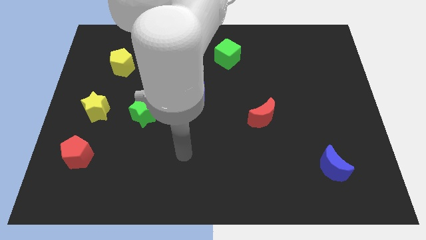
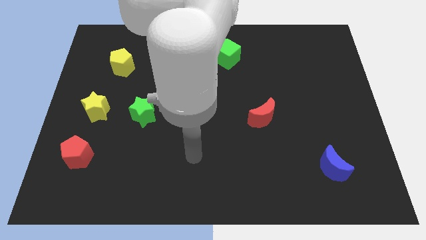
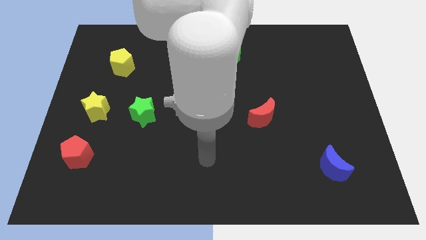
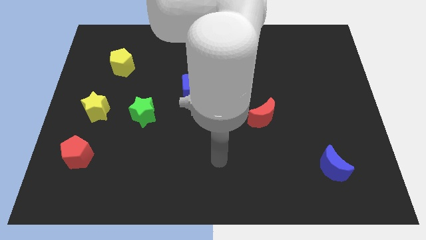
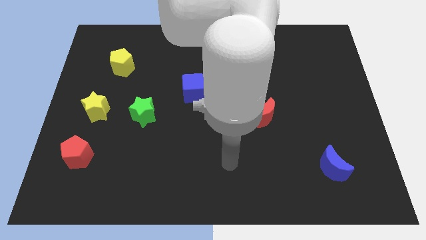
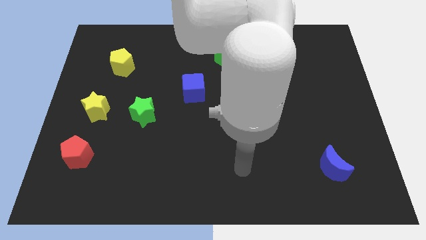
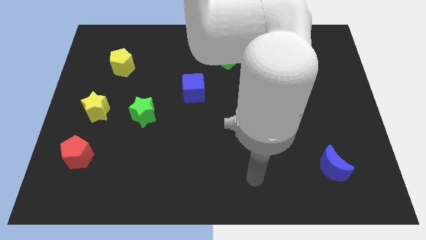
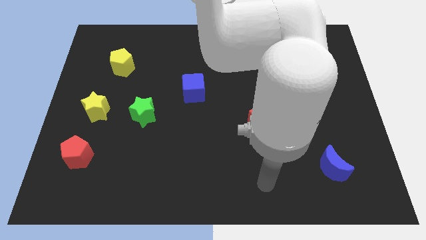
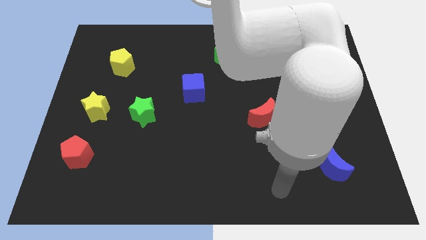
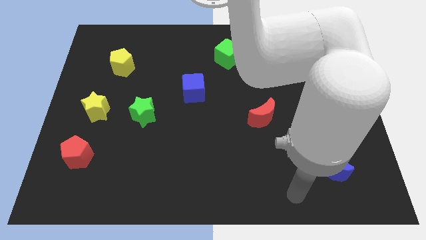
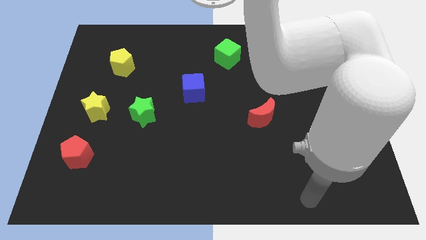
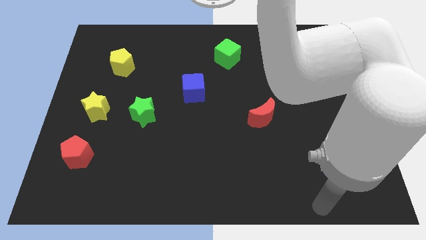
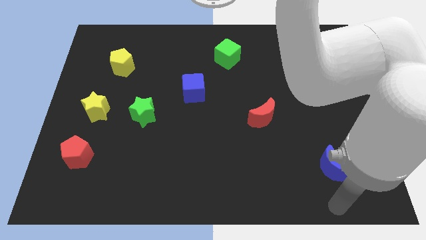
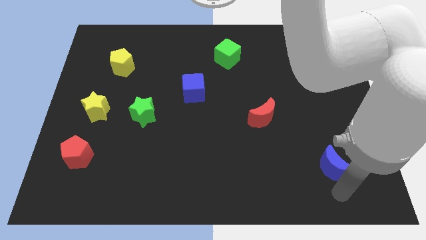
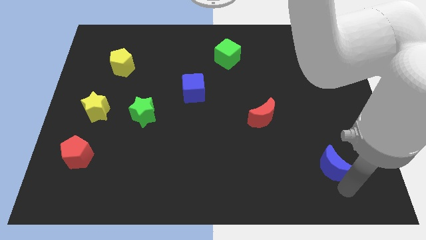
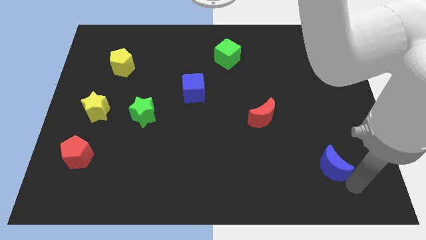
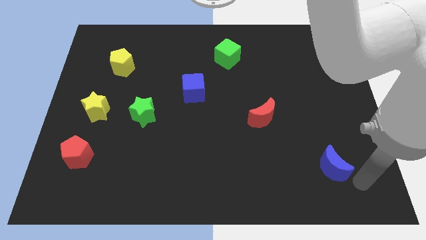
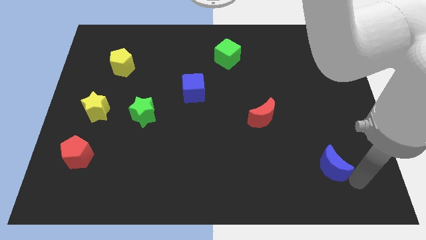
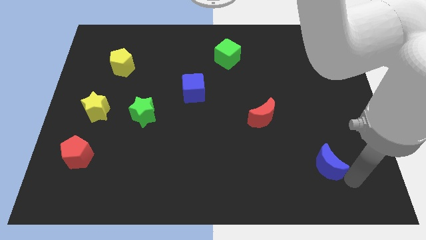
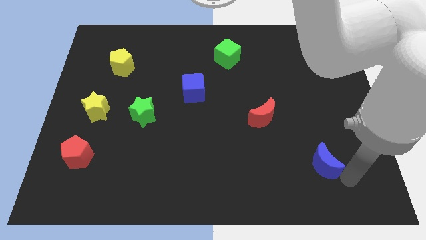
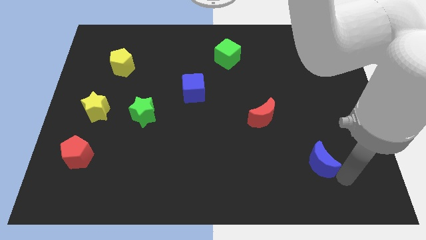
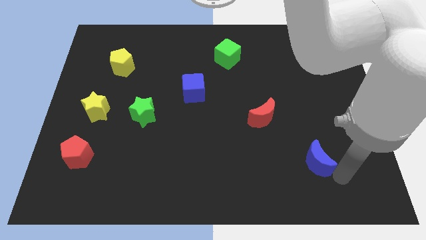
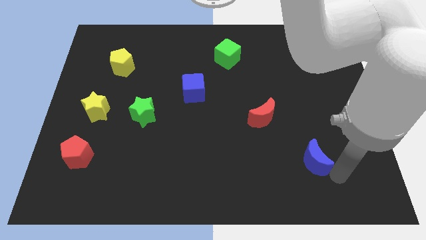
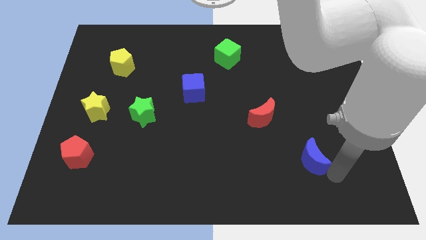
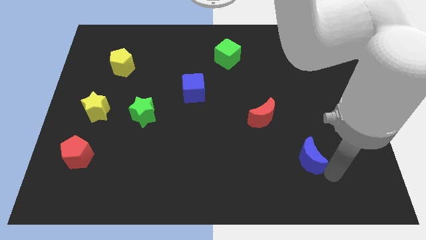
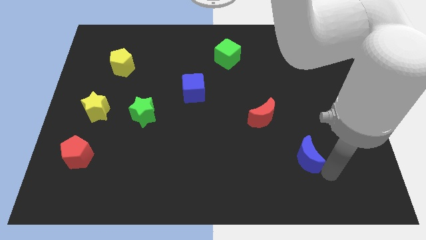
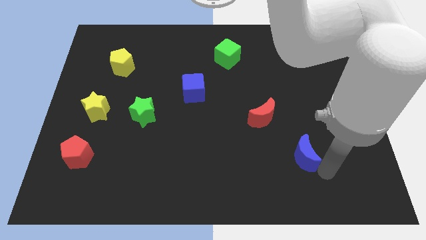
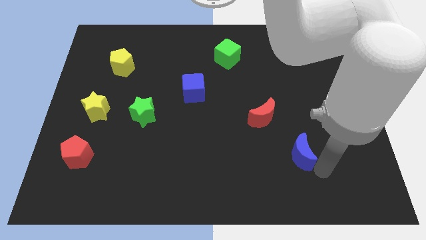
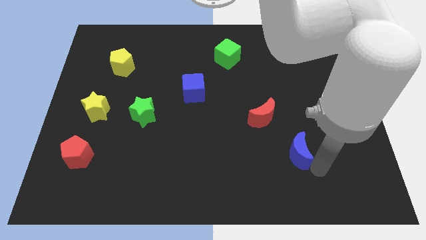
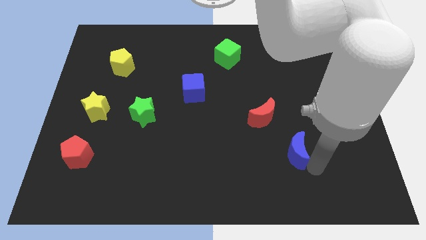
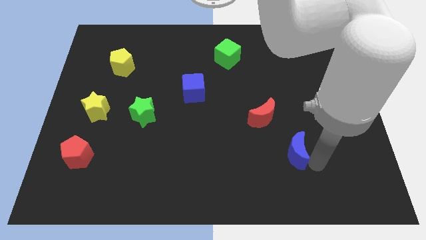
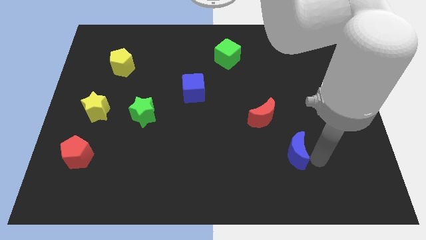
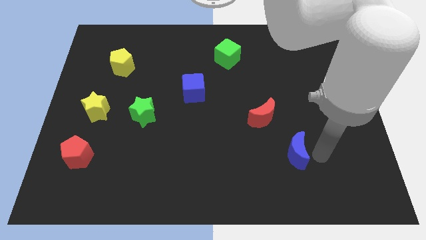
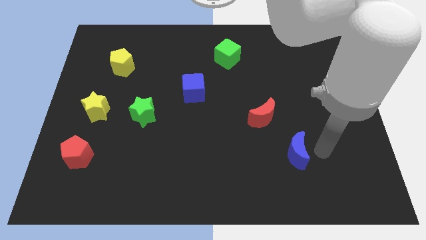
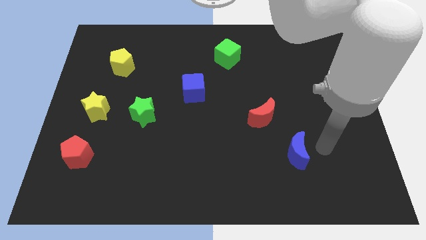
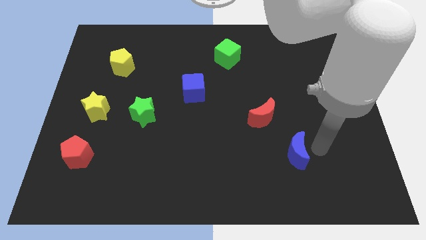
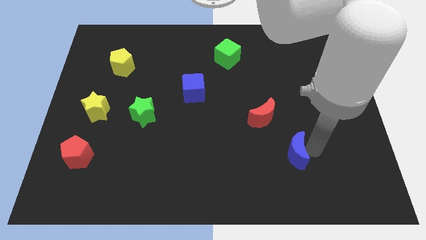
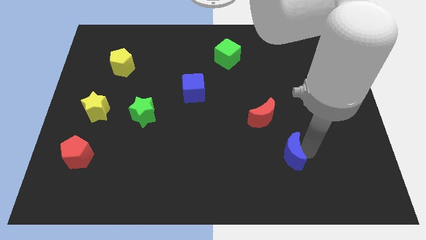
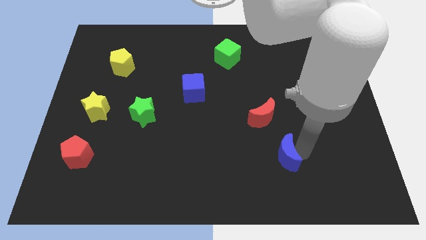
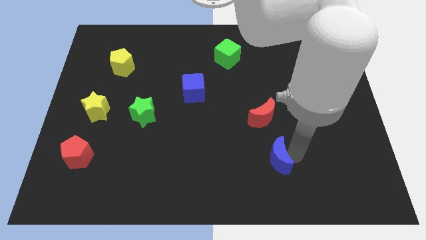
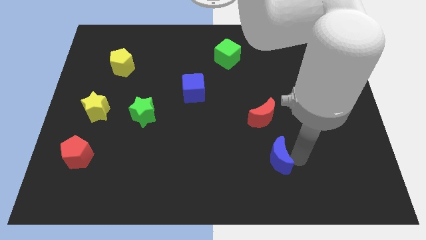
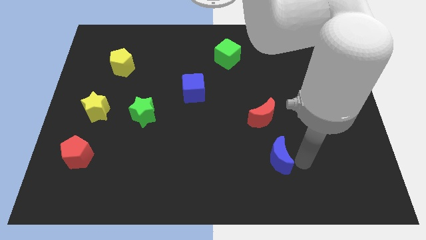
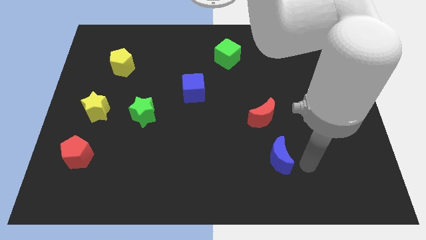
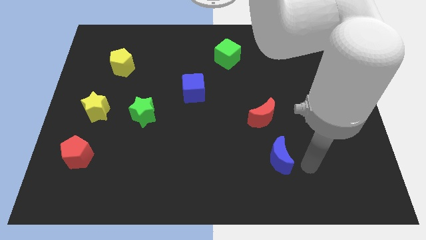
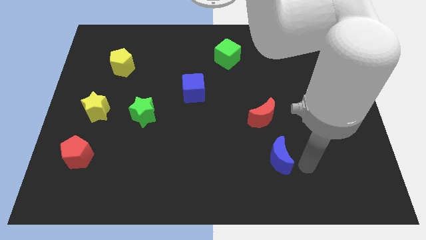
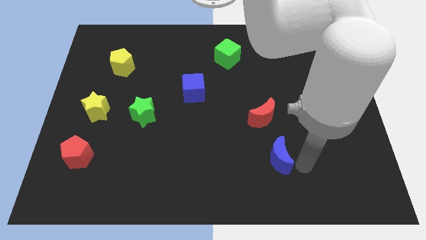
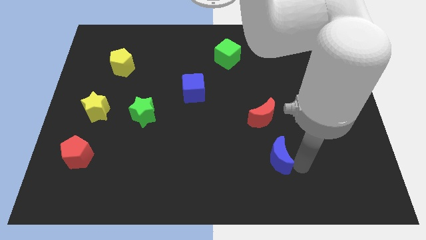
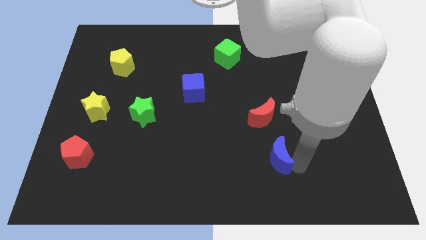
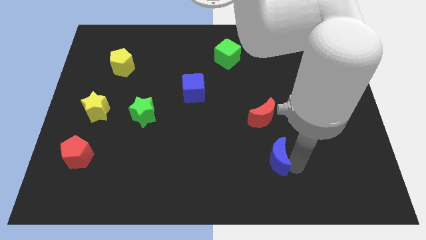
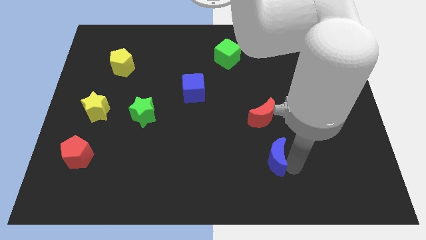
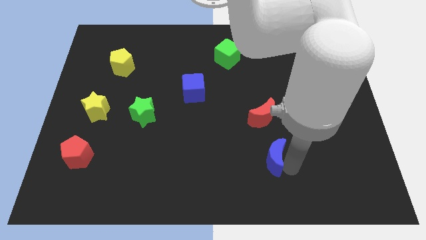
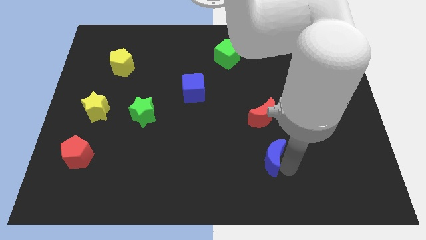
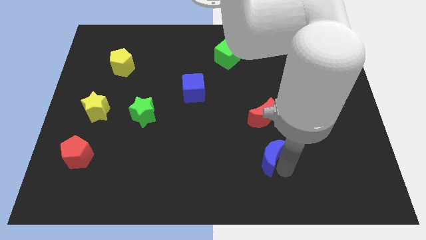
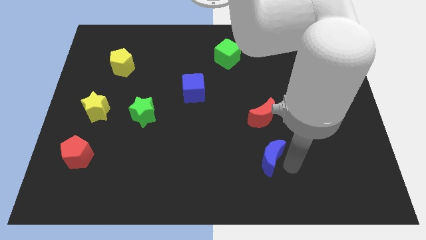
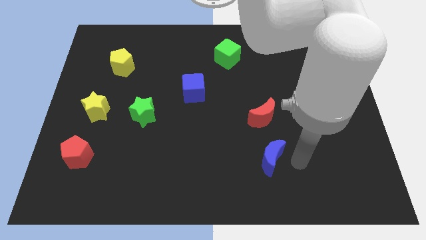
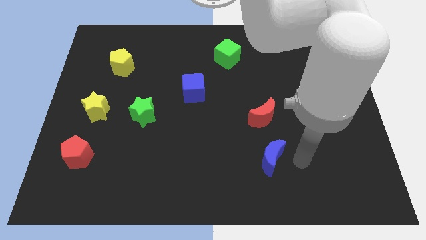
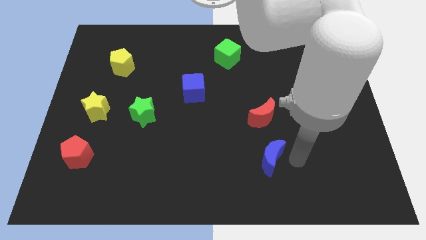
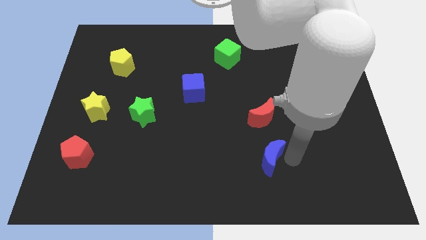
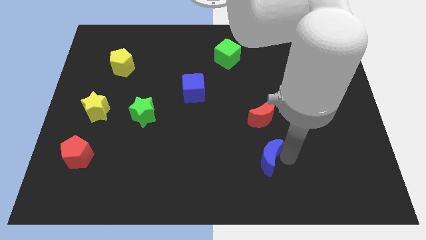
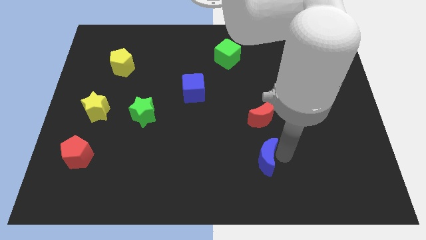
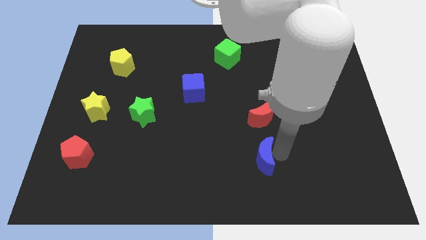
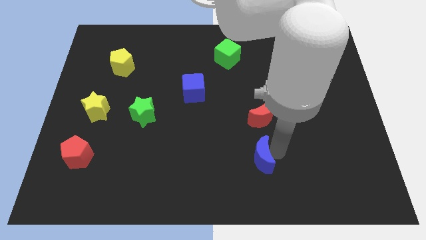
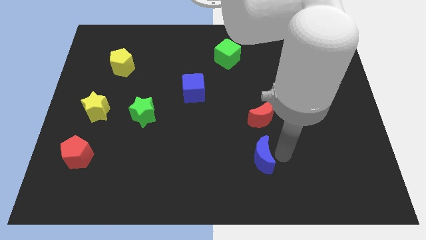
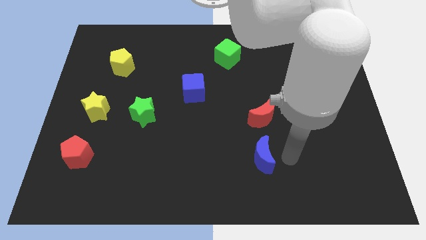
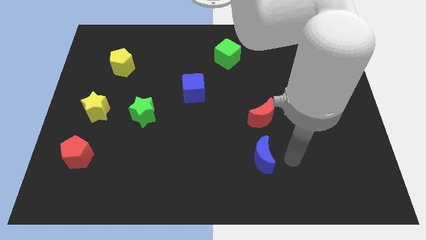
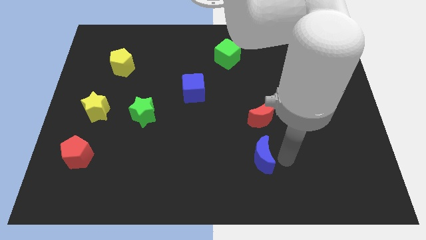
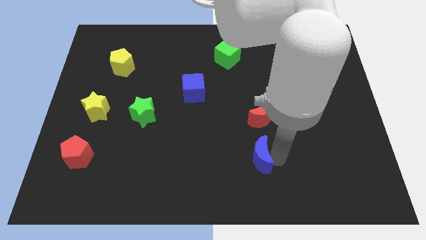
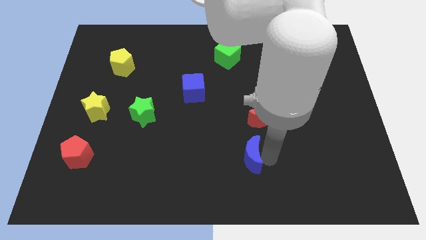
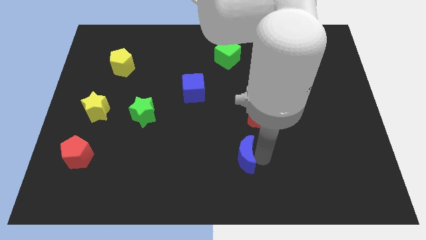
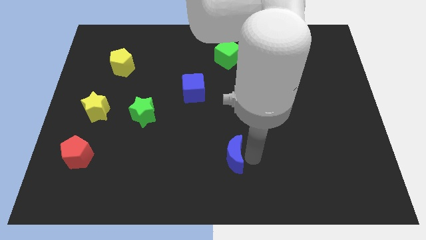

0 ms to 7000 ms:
move the blue moon to the left

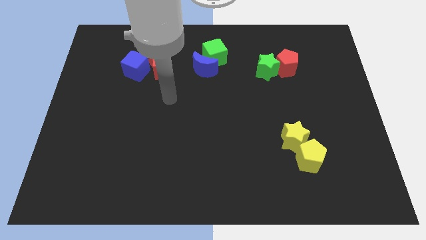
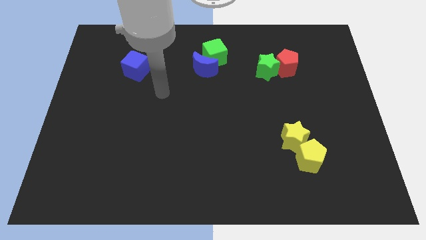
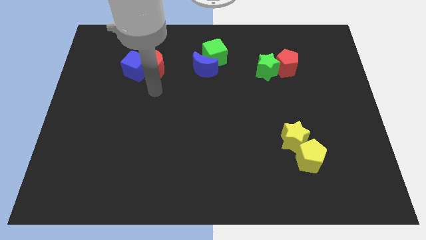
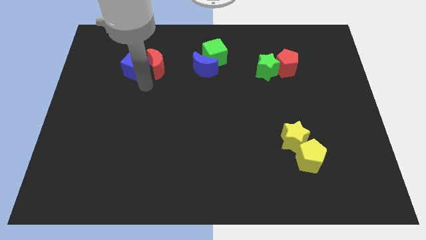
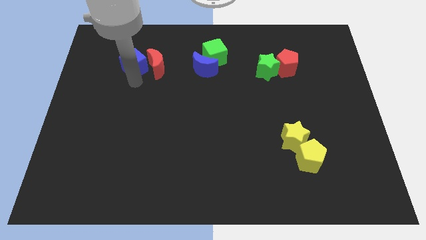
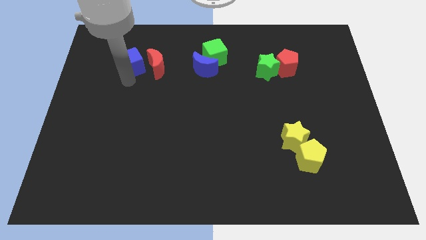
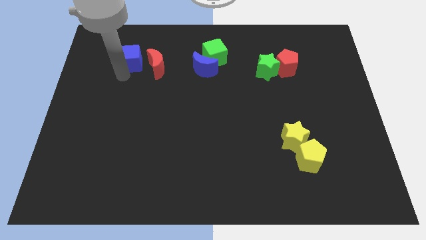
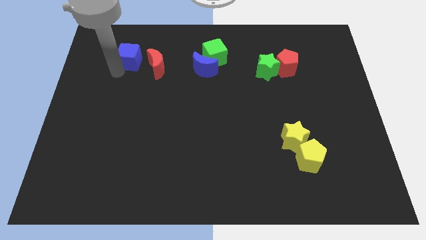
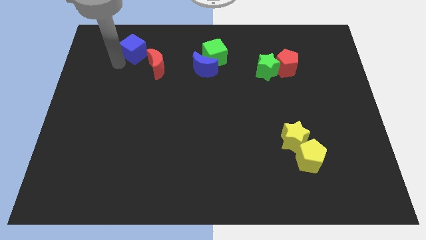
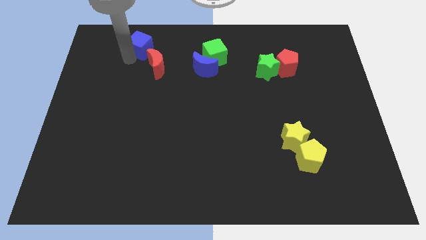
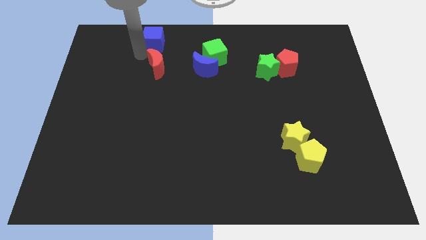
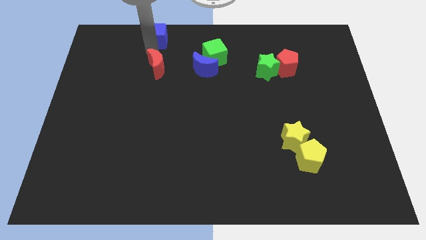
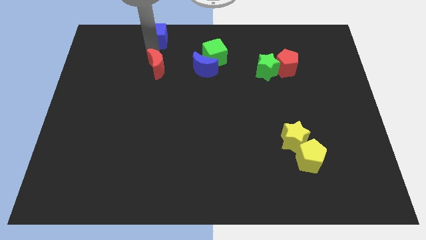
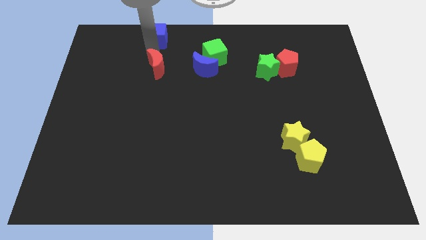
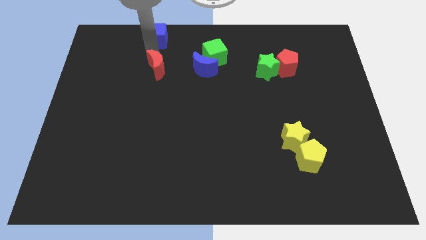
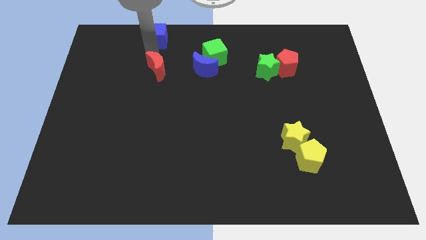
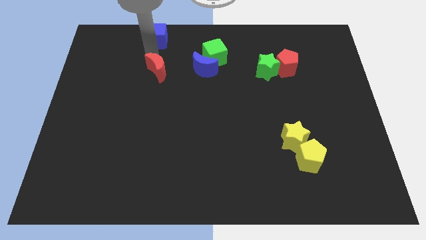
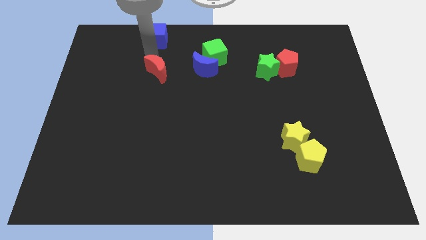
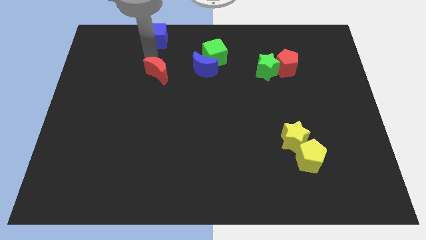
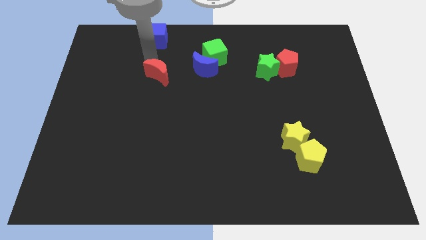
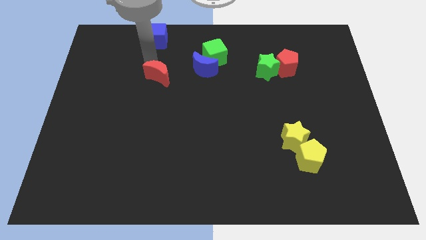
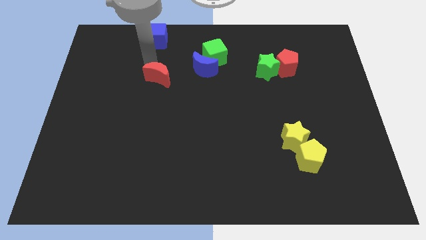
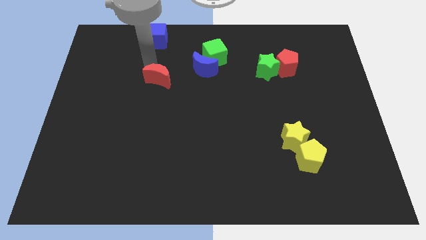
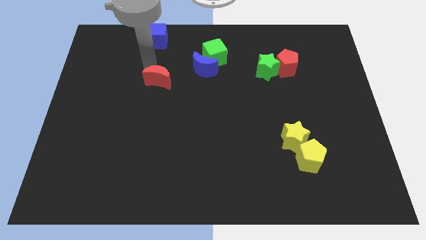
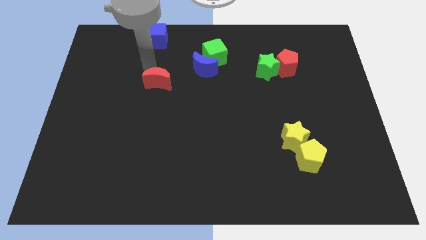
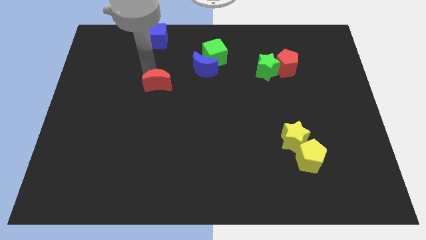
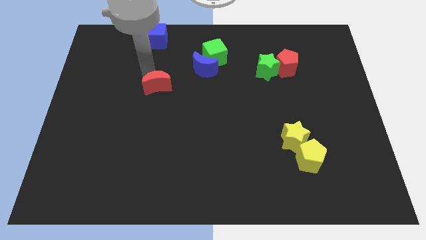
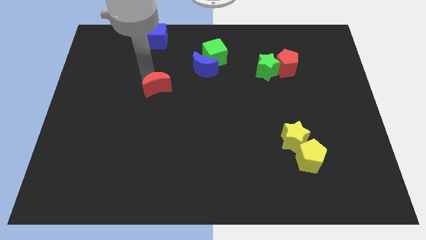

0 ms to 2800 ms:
slightly slide the red moon down
